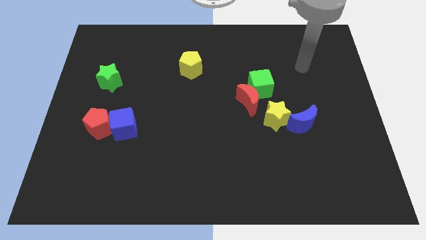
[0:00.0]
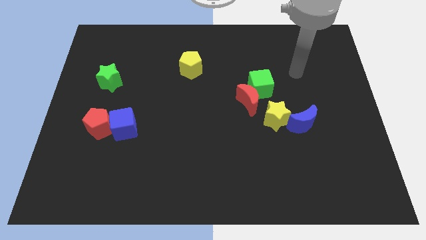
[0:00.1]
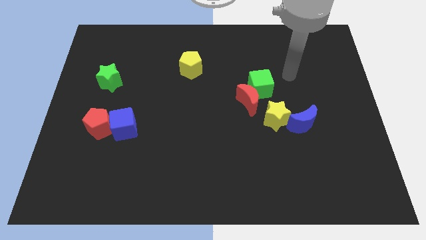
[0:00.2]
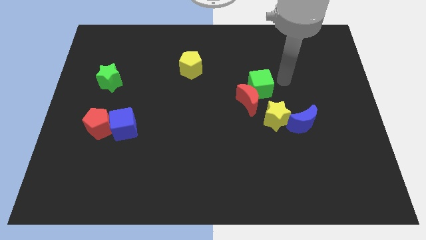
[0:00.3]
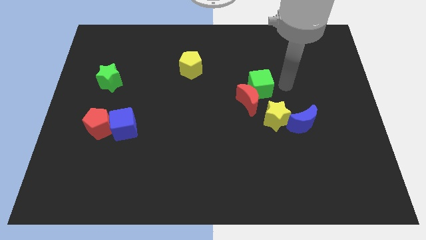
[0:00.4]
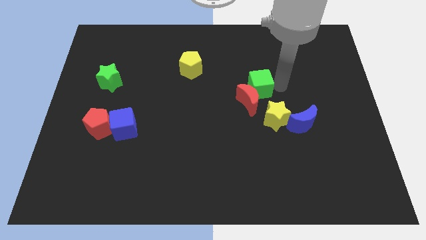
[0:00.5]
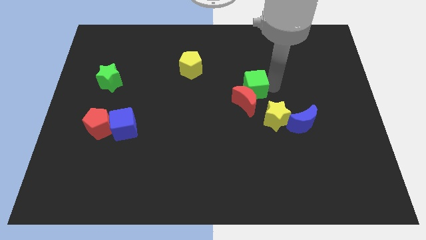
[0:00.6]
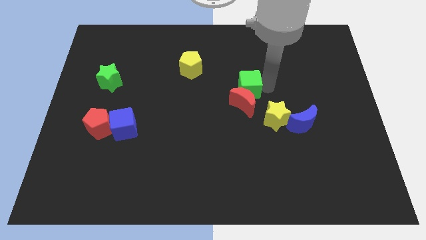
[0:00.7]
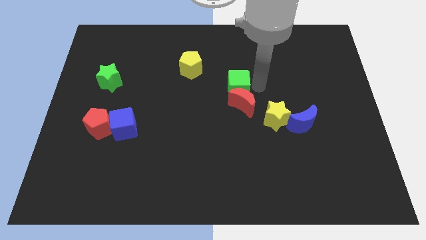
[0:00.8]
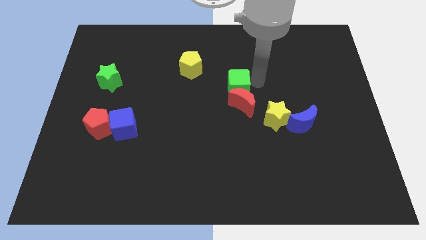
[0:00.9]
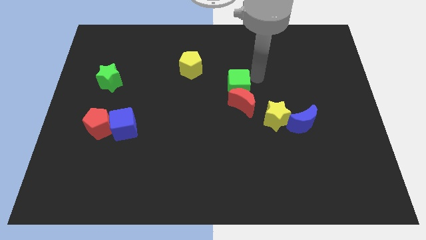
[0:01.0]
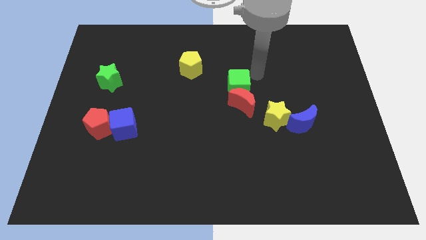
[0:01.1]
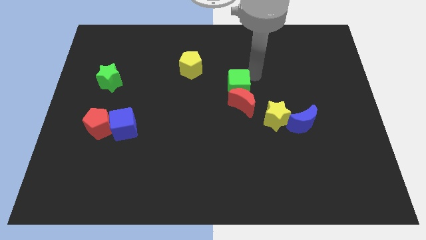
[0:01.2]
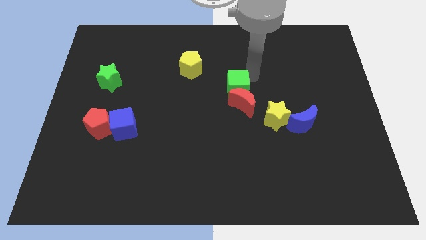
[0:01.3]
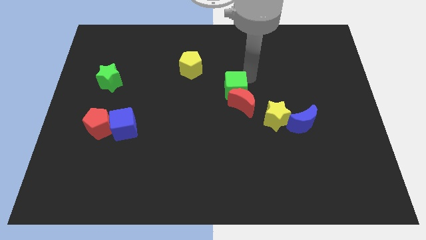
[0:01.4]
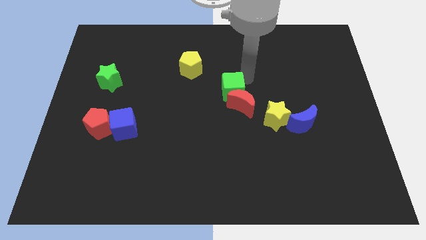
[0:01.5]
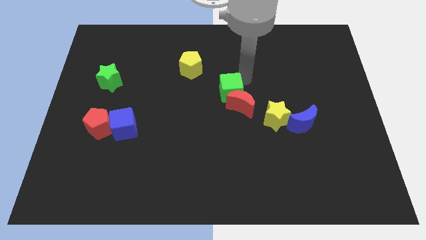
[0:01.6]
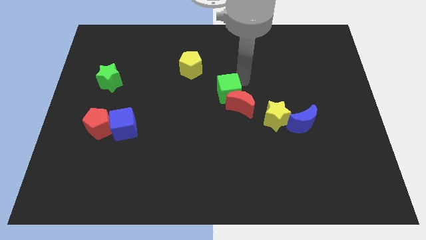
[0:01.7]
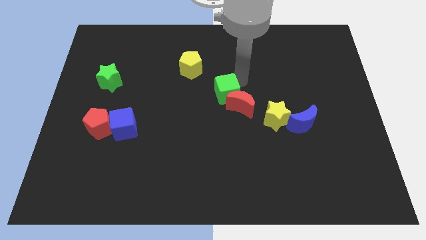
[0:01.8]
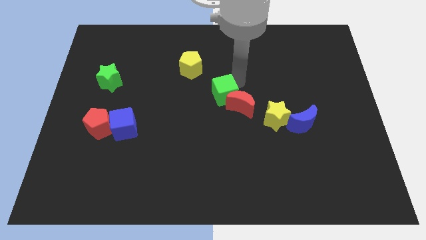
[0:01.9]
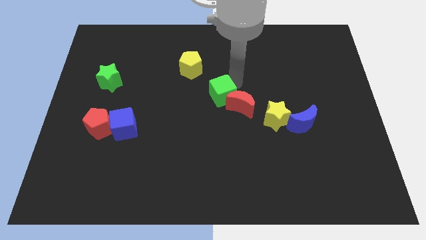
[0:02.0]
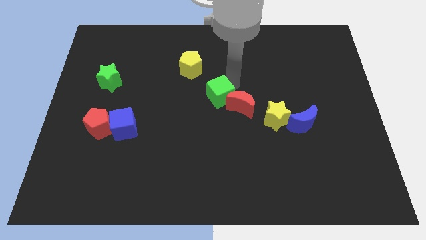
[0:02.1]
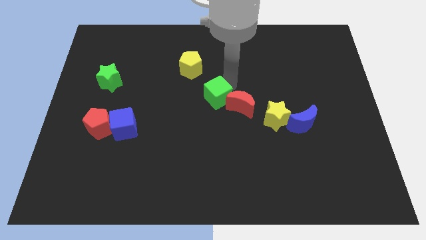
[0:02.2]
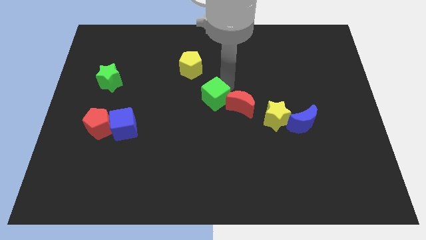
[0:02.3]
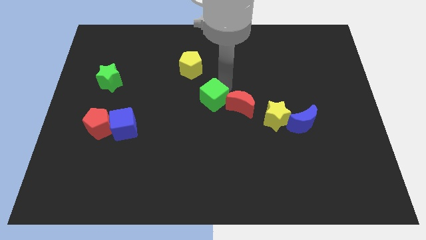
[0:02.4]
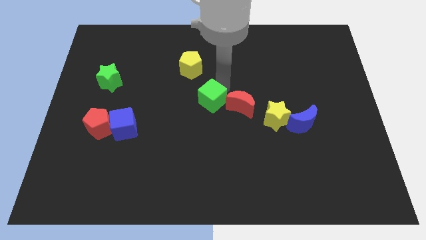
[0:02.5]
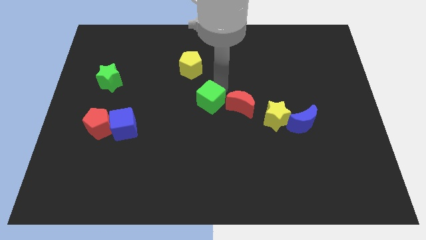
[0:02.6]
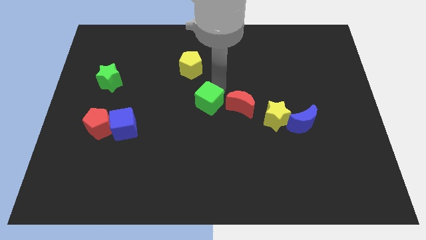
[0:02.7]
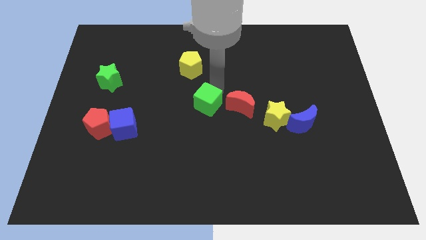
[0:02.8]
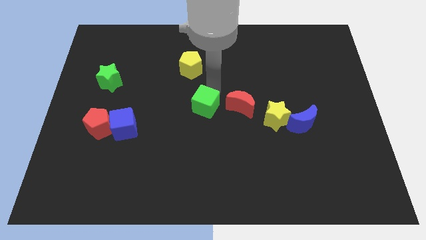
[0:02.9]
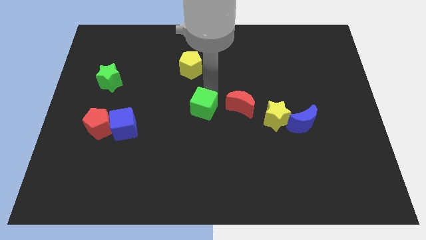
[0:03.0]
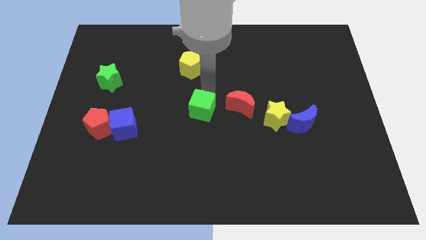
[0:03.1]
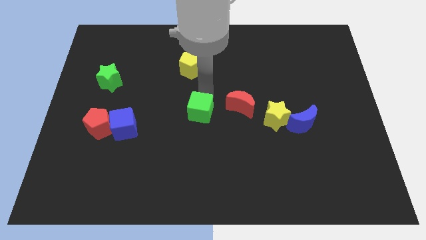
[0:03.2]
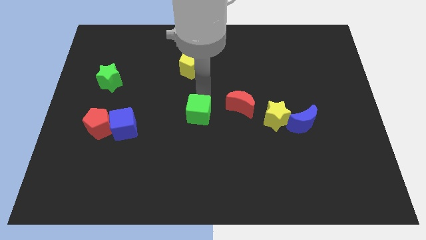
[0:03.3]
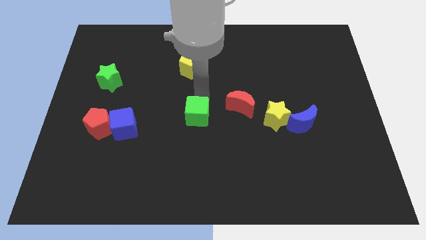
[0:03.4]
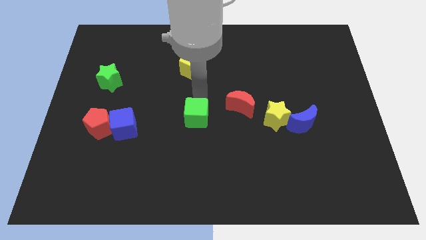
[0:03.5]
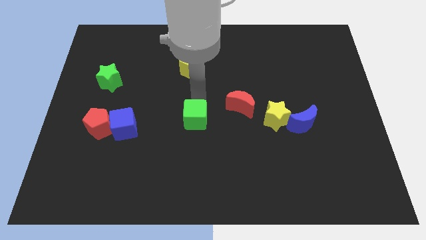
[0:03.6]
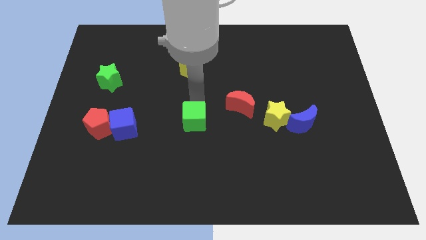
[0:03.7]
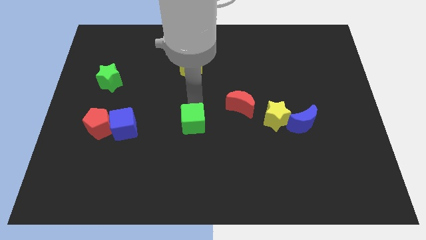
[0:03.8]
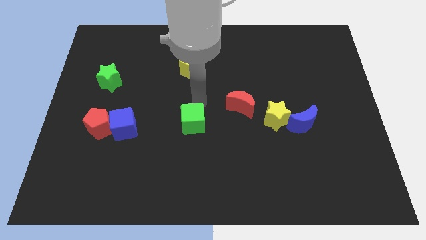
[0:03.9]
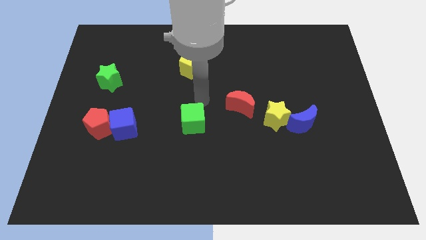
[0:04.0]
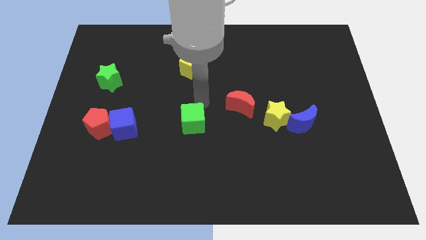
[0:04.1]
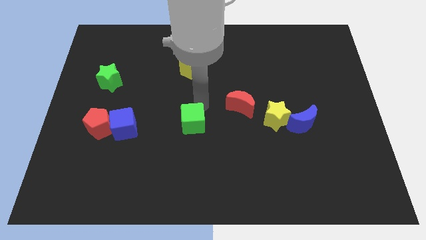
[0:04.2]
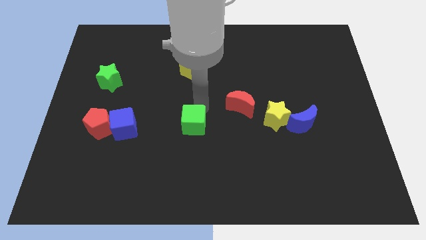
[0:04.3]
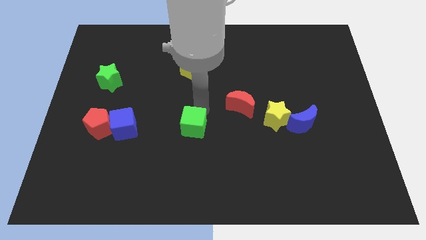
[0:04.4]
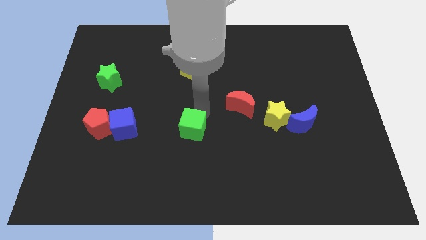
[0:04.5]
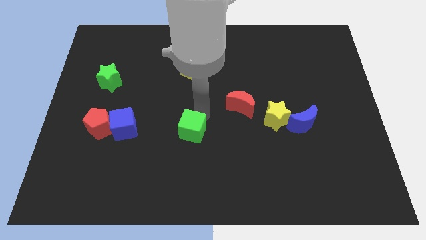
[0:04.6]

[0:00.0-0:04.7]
slide the green cube down and left

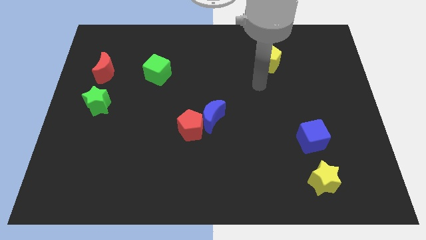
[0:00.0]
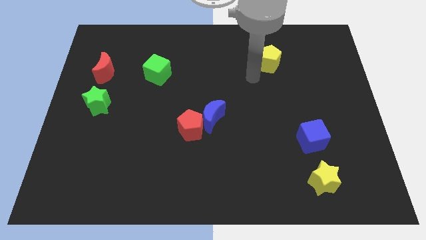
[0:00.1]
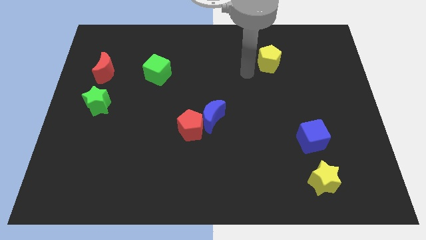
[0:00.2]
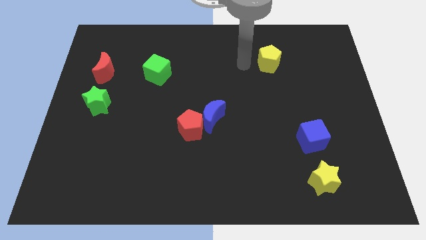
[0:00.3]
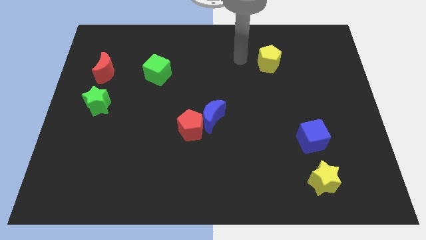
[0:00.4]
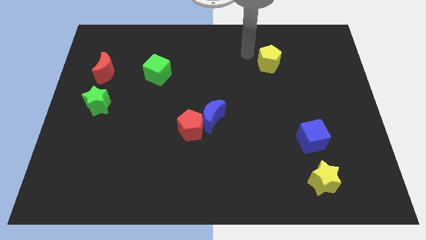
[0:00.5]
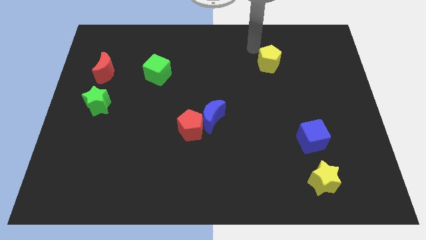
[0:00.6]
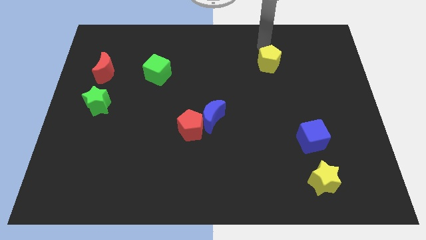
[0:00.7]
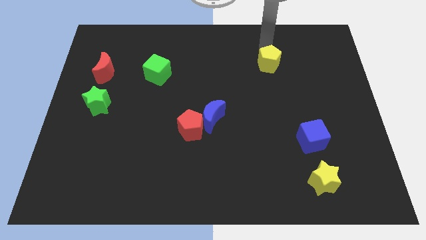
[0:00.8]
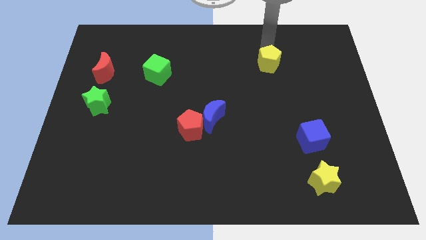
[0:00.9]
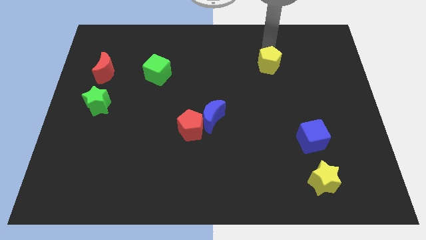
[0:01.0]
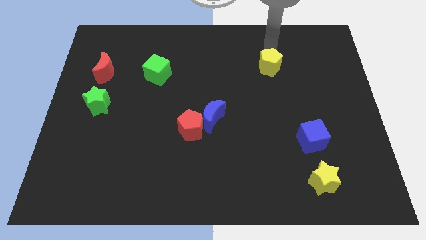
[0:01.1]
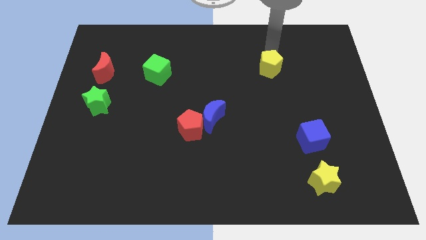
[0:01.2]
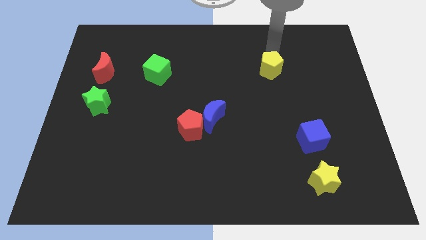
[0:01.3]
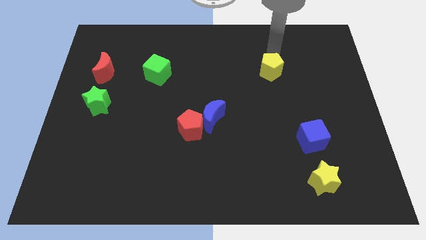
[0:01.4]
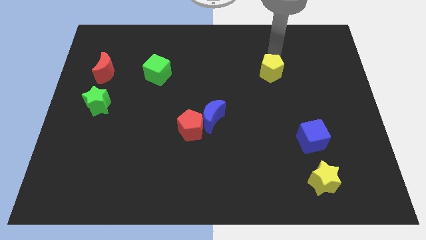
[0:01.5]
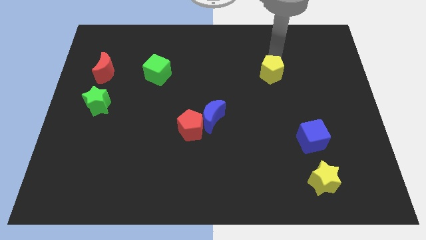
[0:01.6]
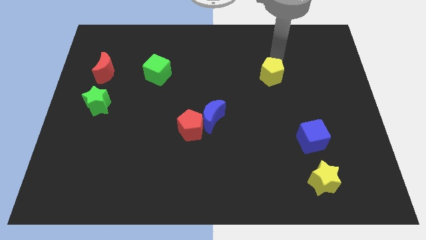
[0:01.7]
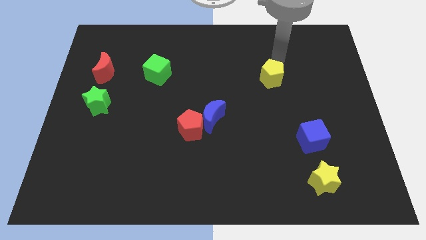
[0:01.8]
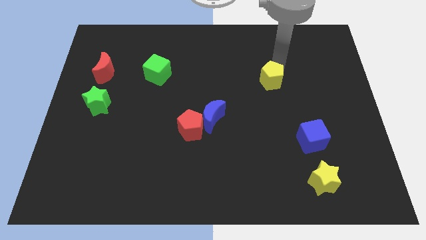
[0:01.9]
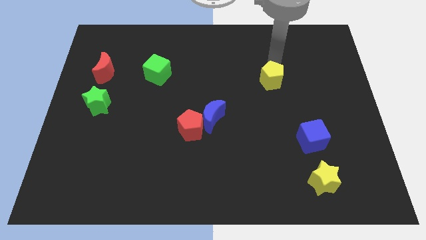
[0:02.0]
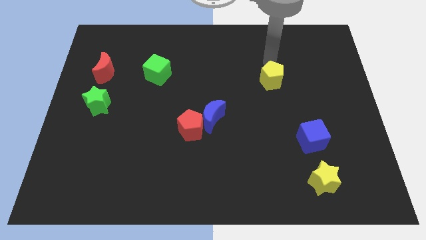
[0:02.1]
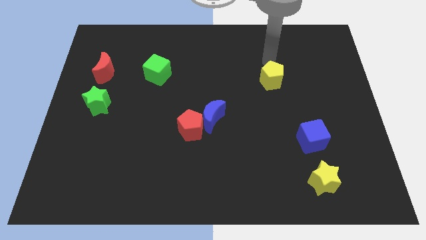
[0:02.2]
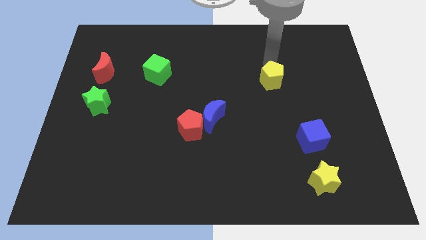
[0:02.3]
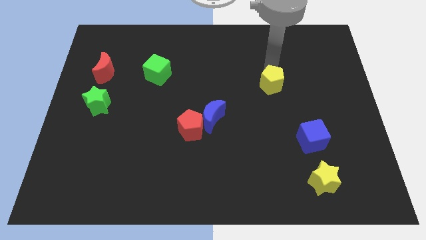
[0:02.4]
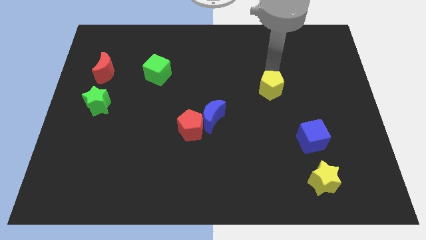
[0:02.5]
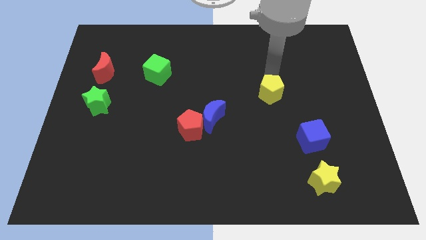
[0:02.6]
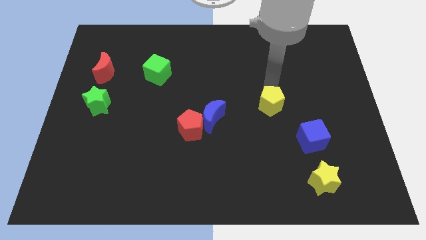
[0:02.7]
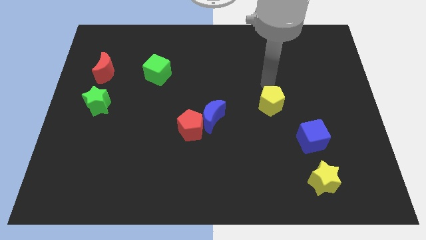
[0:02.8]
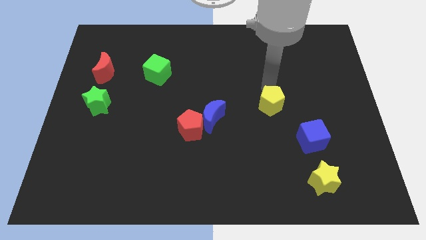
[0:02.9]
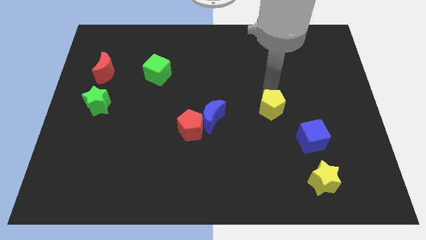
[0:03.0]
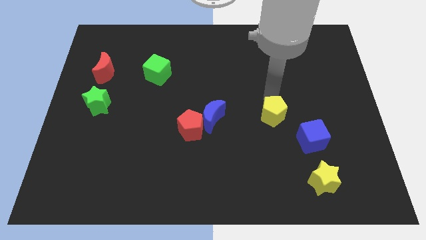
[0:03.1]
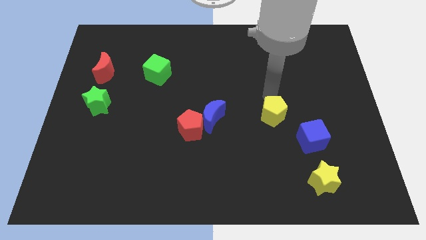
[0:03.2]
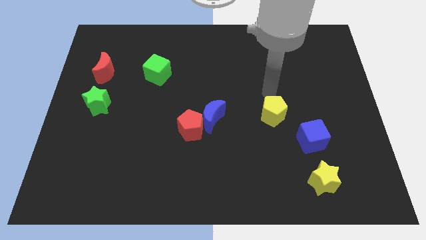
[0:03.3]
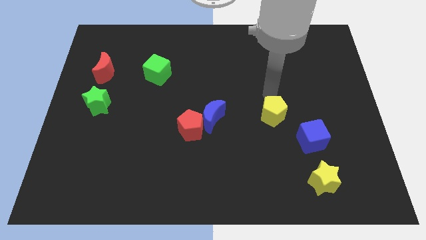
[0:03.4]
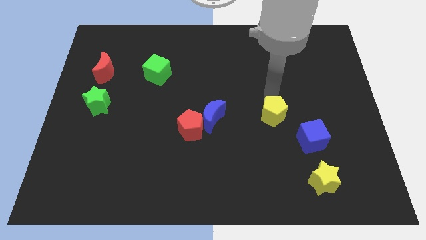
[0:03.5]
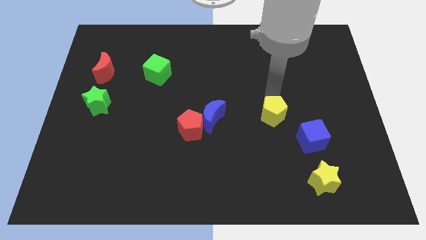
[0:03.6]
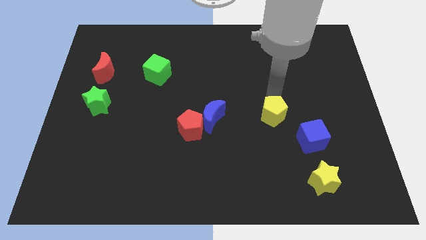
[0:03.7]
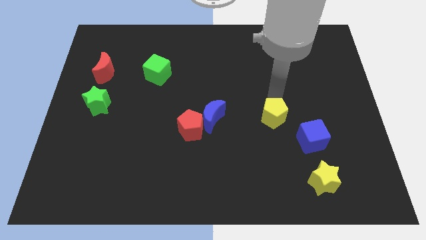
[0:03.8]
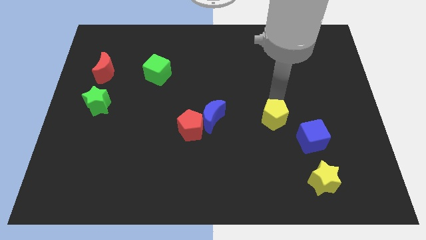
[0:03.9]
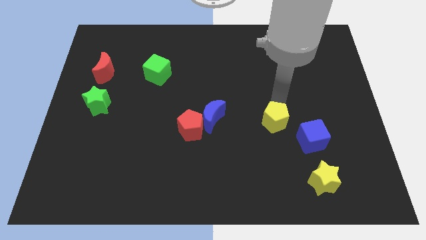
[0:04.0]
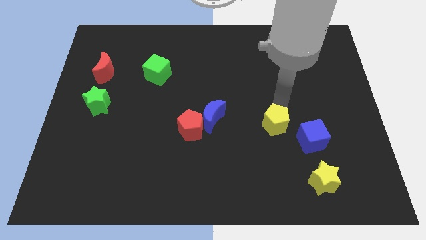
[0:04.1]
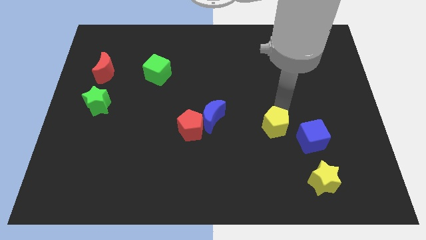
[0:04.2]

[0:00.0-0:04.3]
slide the yellow pentagon down
